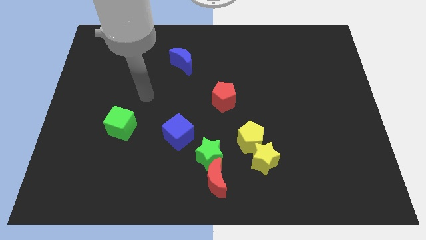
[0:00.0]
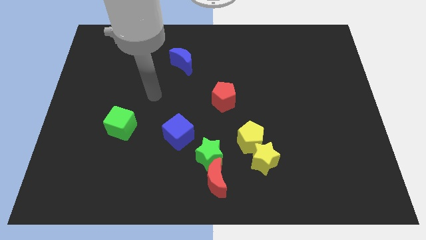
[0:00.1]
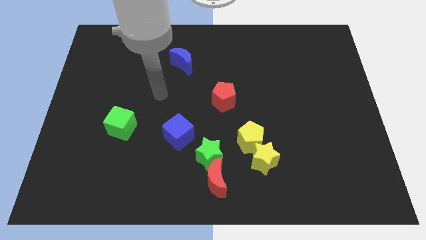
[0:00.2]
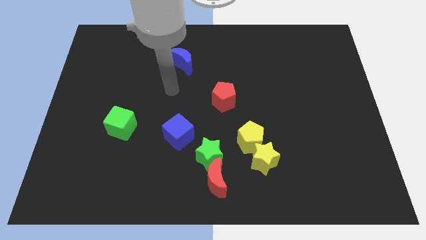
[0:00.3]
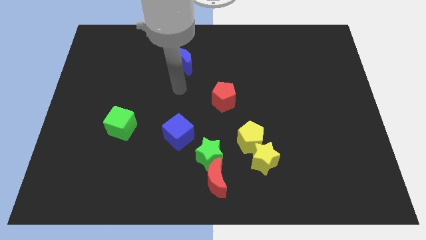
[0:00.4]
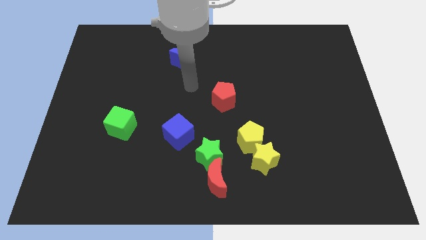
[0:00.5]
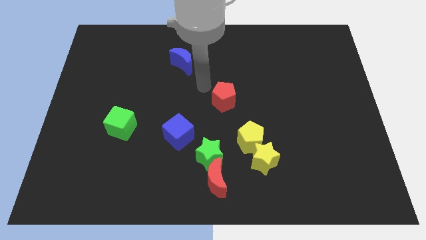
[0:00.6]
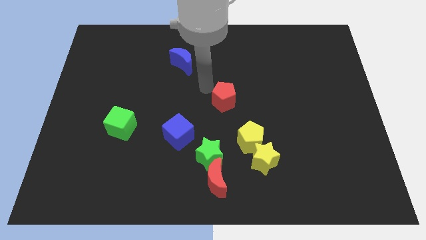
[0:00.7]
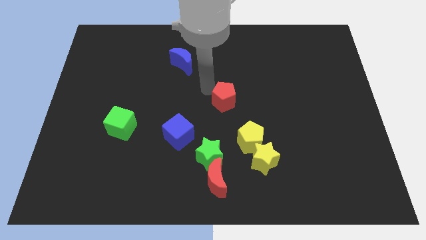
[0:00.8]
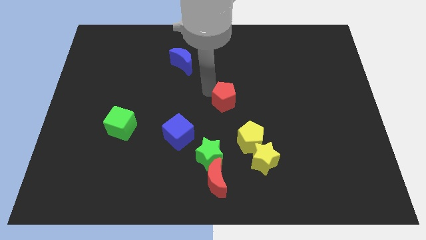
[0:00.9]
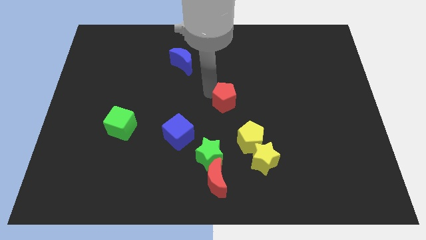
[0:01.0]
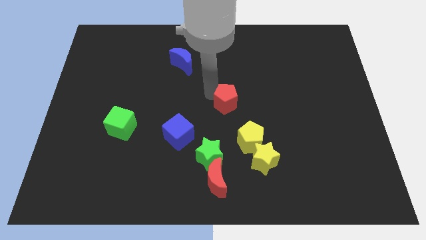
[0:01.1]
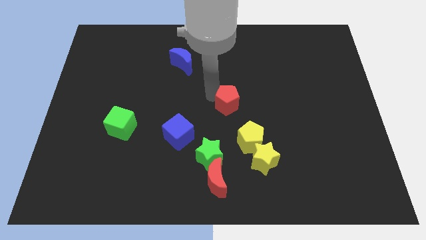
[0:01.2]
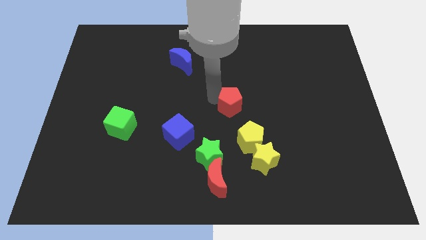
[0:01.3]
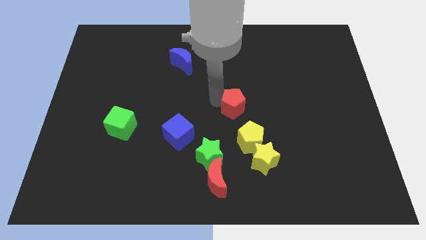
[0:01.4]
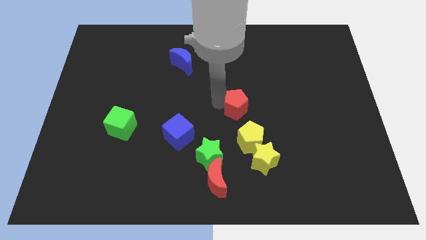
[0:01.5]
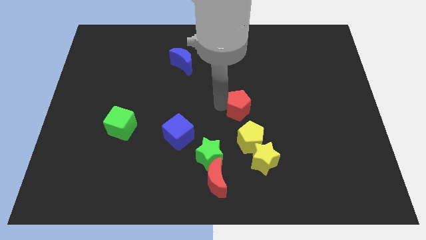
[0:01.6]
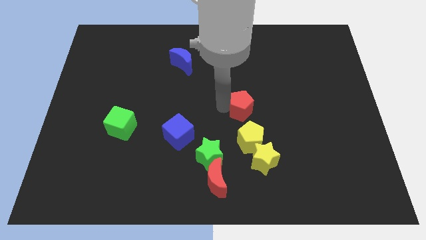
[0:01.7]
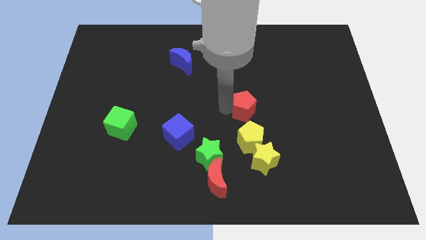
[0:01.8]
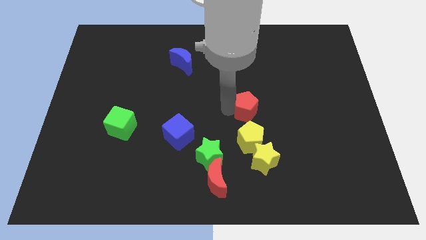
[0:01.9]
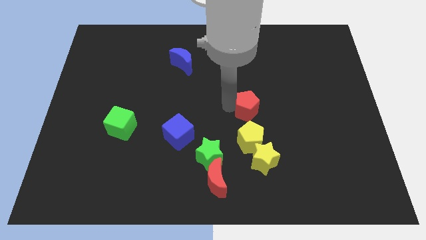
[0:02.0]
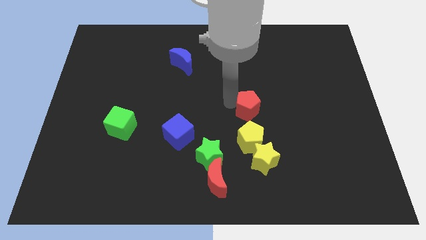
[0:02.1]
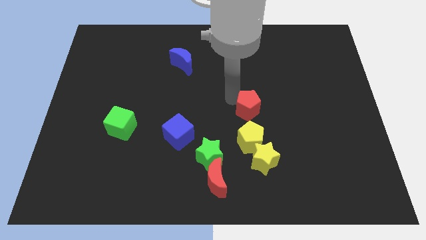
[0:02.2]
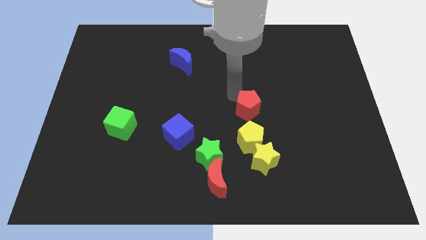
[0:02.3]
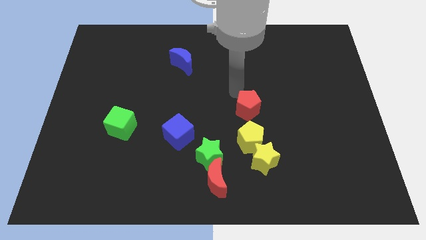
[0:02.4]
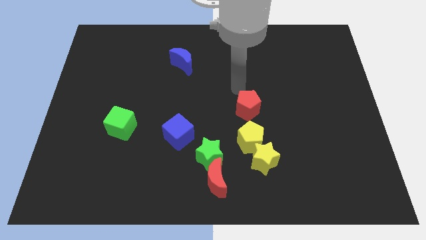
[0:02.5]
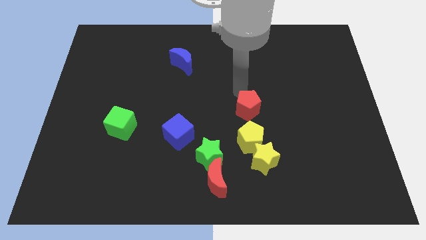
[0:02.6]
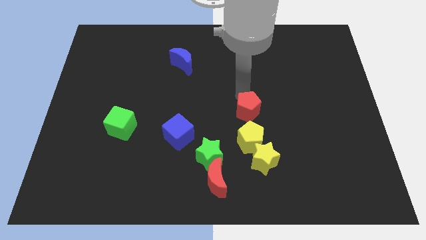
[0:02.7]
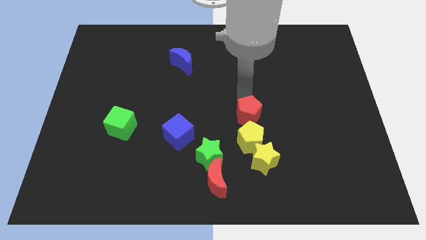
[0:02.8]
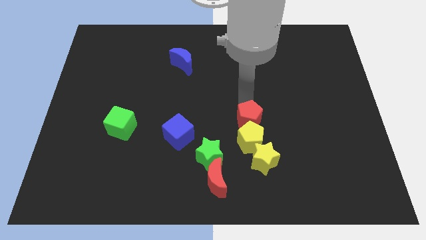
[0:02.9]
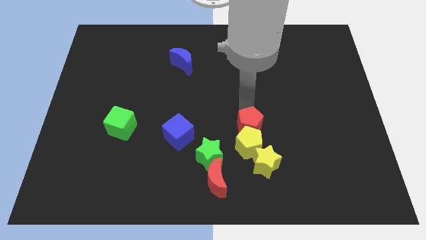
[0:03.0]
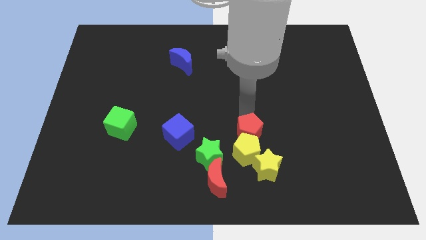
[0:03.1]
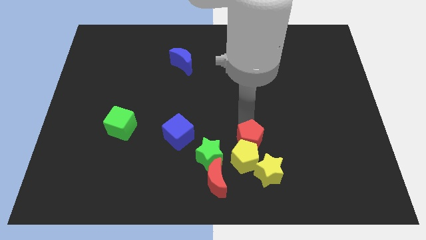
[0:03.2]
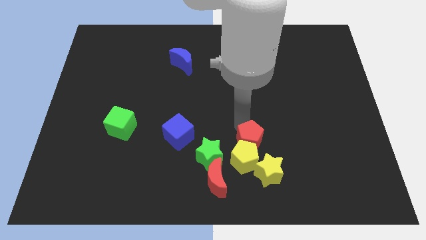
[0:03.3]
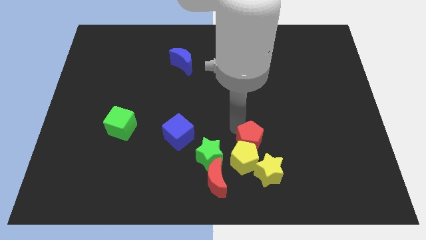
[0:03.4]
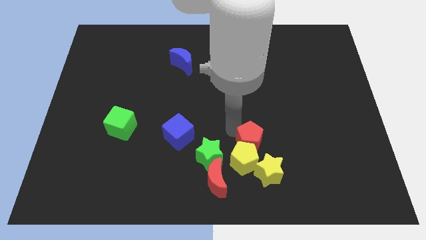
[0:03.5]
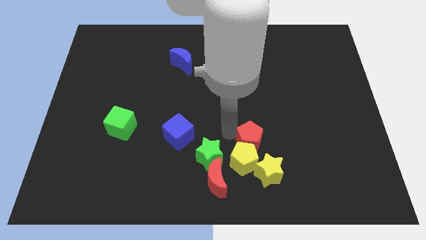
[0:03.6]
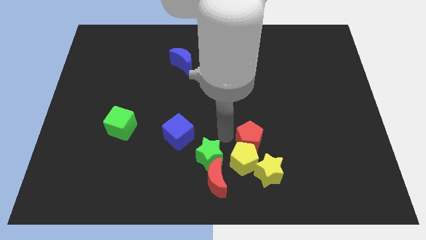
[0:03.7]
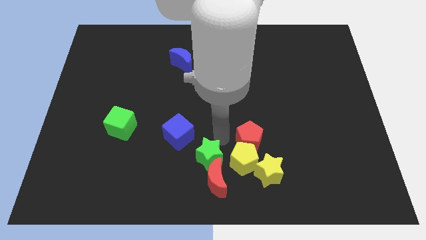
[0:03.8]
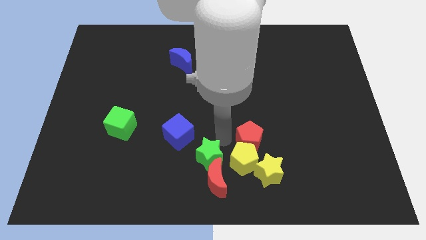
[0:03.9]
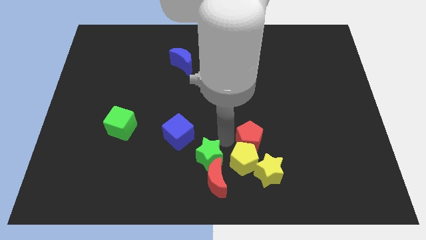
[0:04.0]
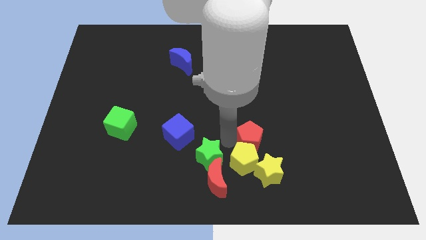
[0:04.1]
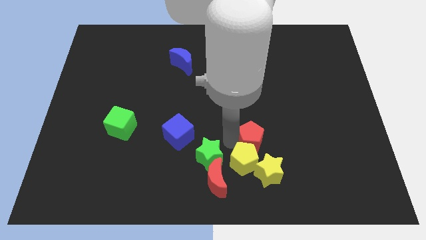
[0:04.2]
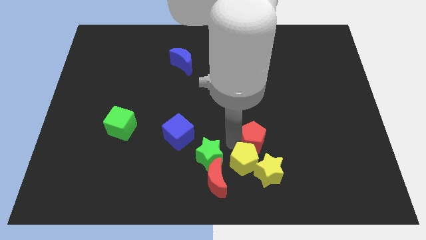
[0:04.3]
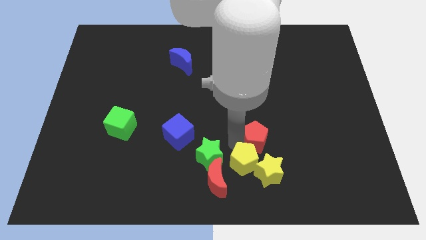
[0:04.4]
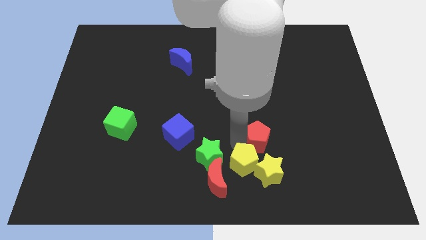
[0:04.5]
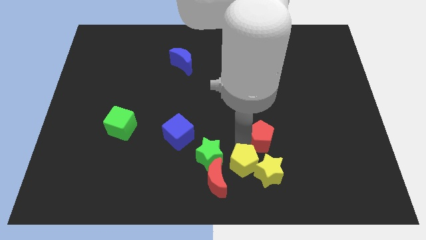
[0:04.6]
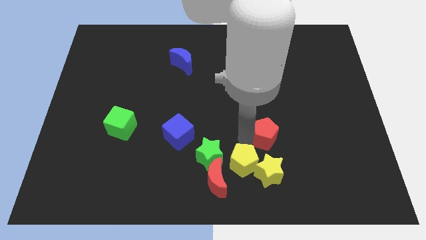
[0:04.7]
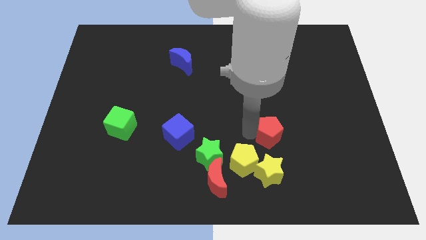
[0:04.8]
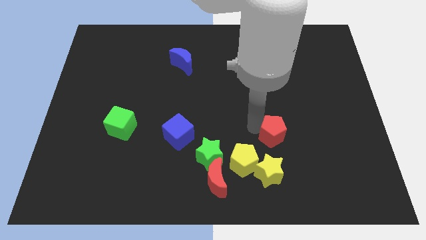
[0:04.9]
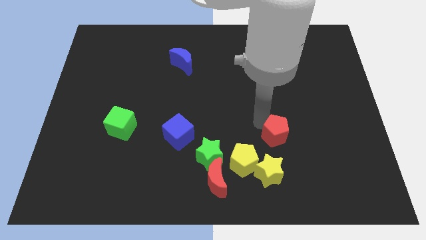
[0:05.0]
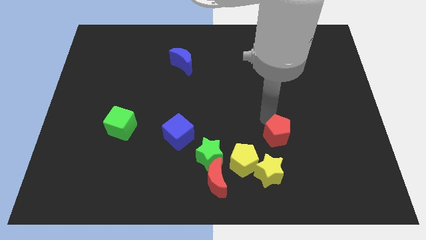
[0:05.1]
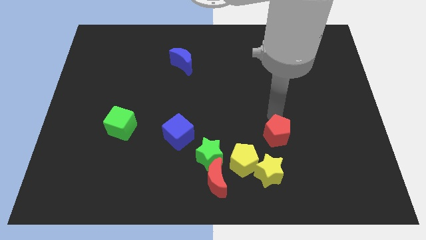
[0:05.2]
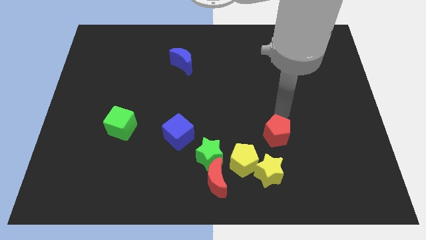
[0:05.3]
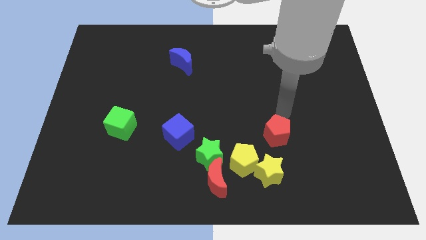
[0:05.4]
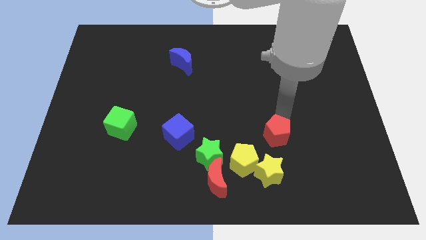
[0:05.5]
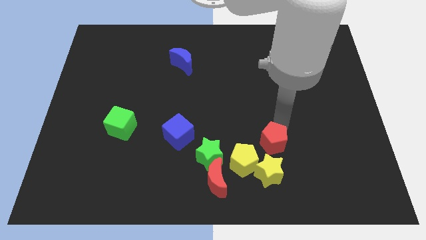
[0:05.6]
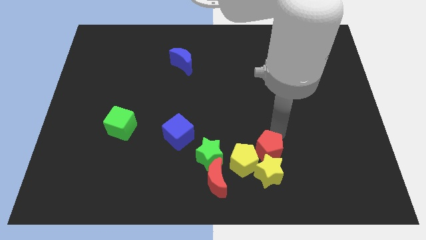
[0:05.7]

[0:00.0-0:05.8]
move the red pentagon next to the yellow star

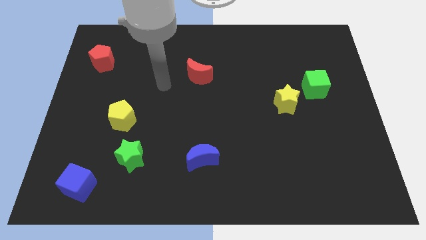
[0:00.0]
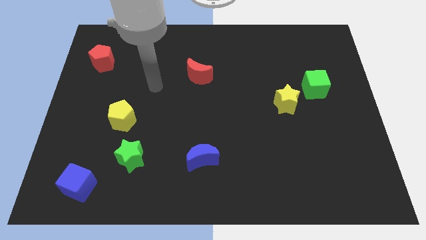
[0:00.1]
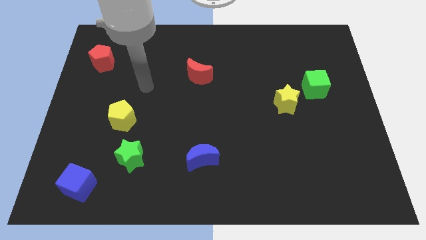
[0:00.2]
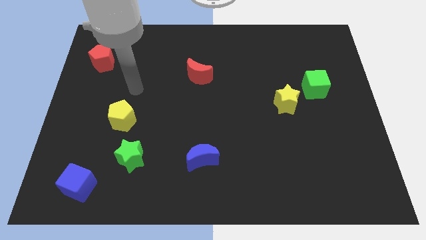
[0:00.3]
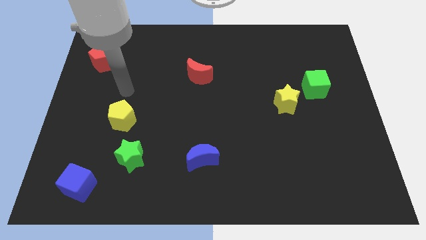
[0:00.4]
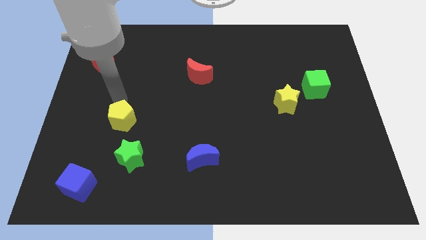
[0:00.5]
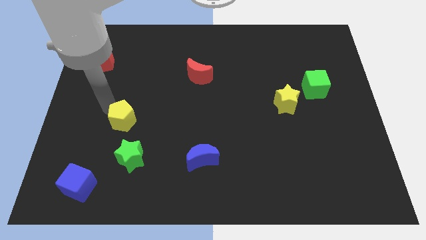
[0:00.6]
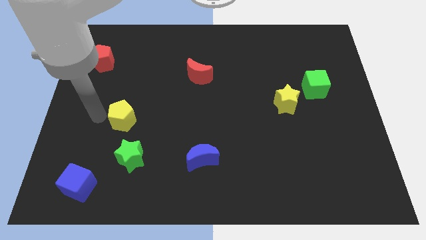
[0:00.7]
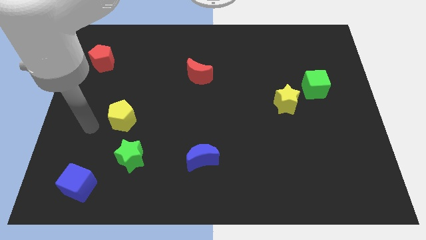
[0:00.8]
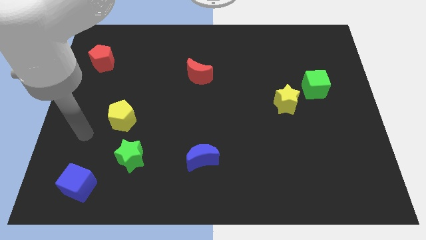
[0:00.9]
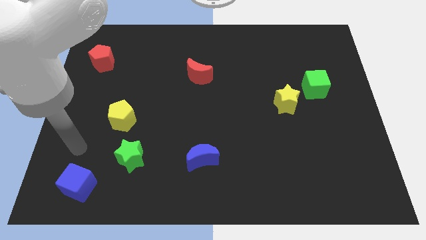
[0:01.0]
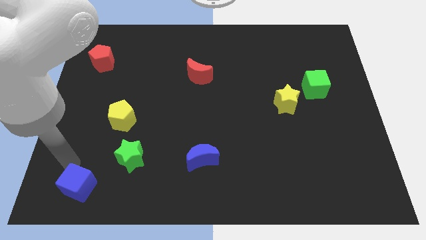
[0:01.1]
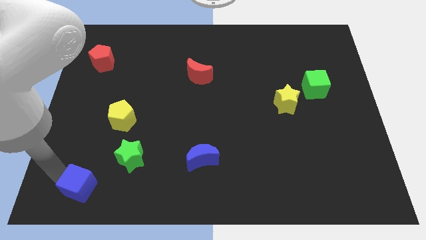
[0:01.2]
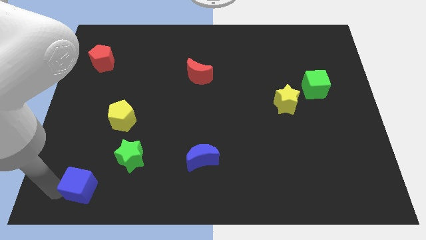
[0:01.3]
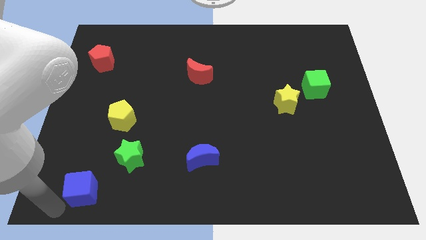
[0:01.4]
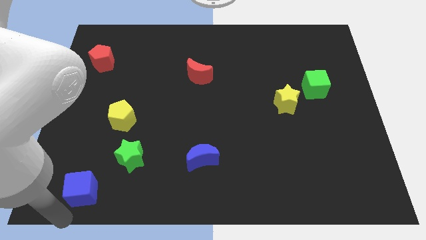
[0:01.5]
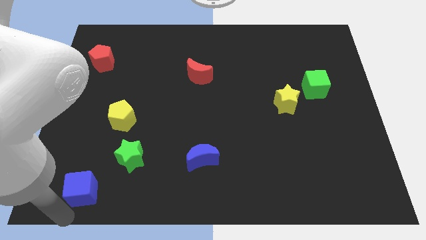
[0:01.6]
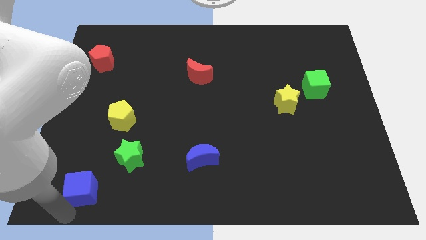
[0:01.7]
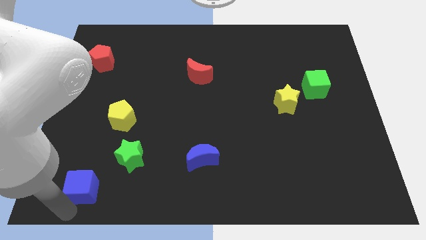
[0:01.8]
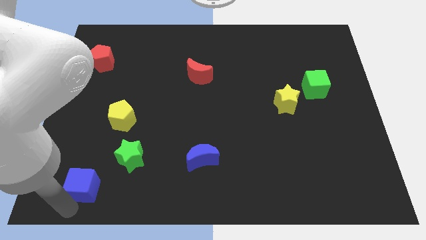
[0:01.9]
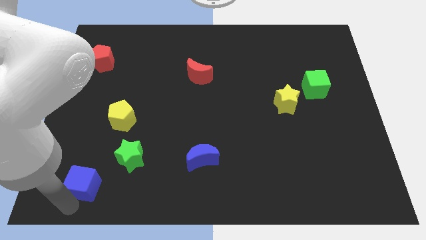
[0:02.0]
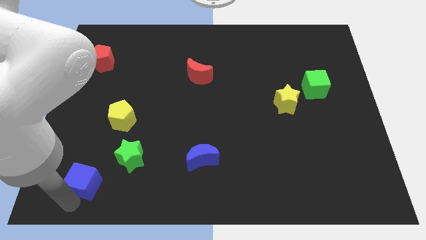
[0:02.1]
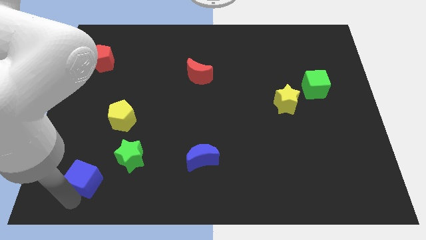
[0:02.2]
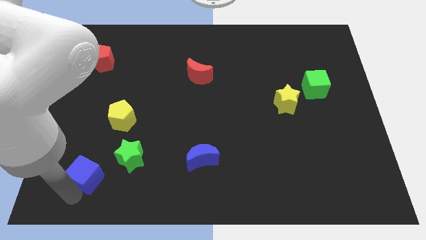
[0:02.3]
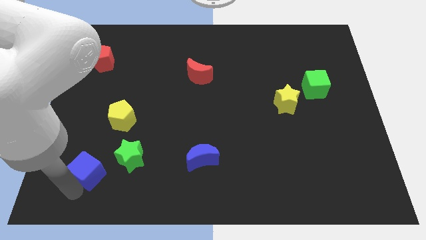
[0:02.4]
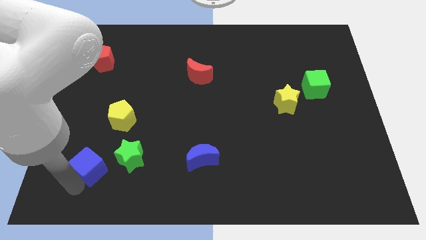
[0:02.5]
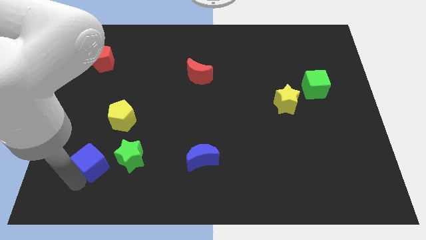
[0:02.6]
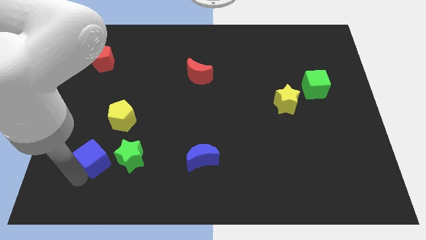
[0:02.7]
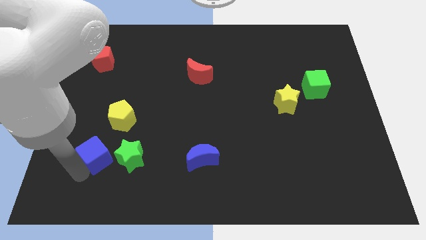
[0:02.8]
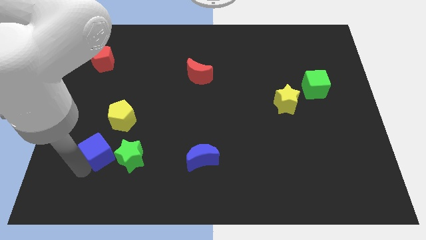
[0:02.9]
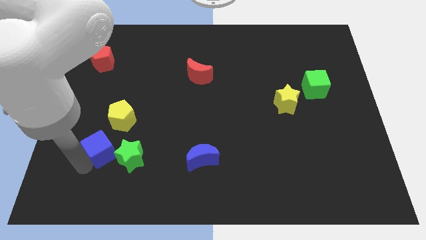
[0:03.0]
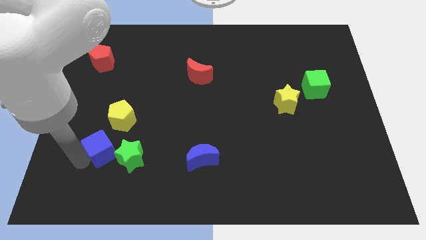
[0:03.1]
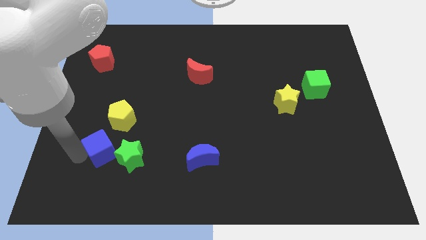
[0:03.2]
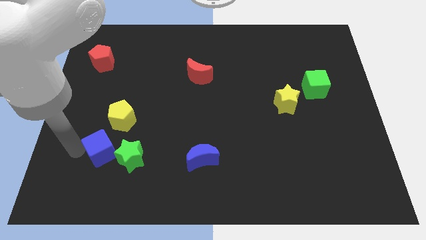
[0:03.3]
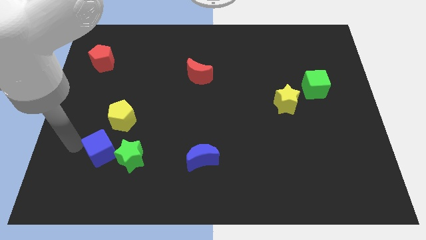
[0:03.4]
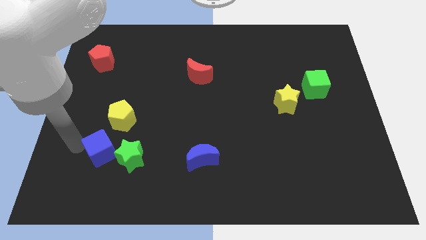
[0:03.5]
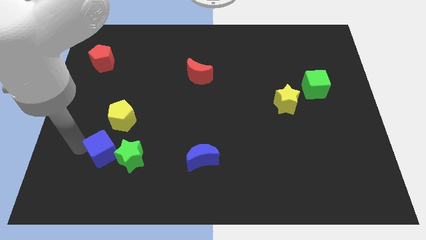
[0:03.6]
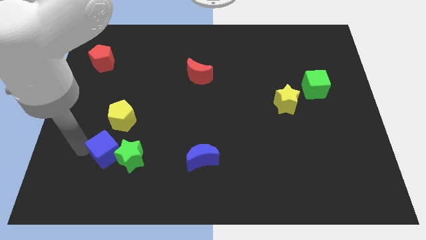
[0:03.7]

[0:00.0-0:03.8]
push the blue cube towards the green star
